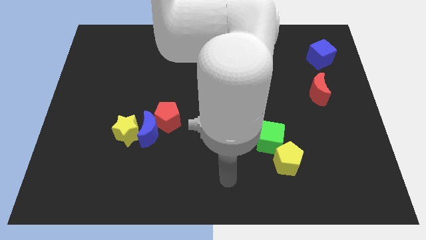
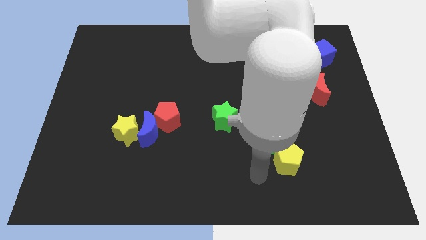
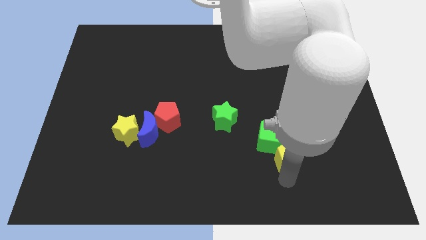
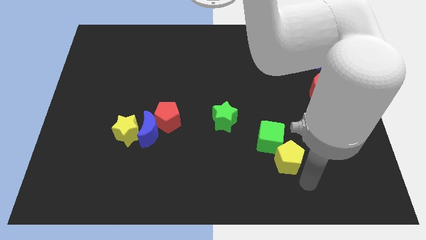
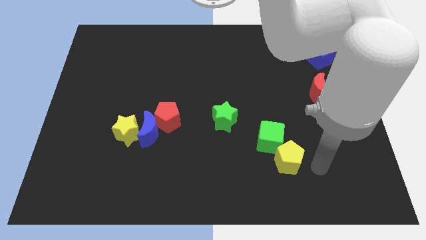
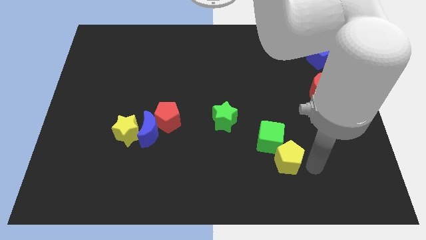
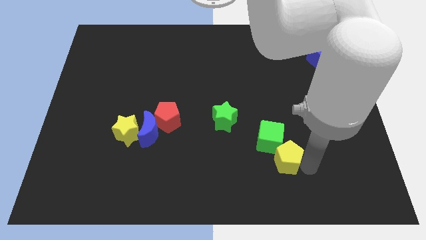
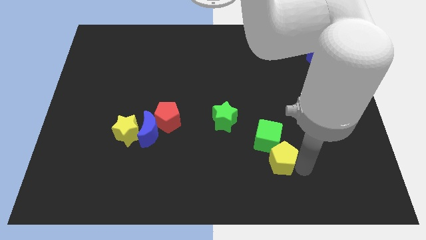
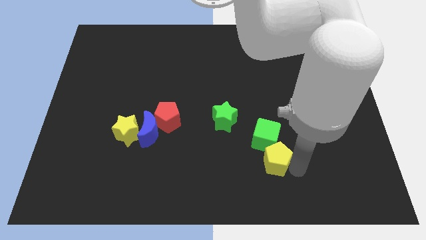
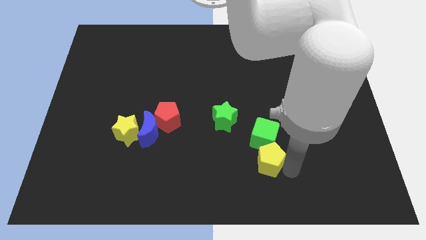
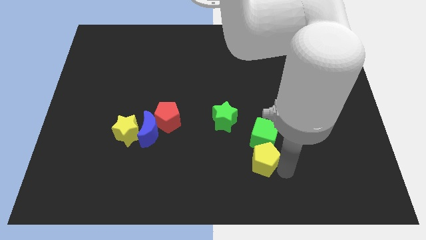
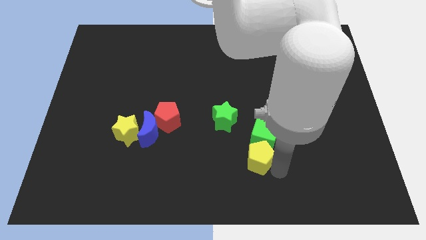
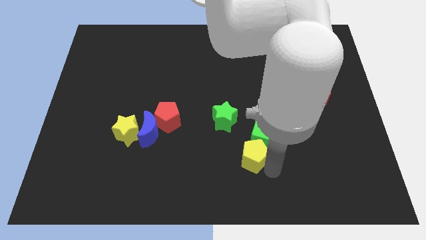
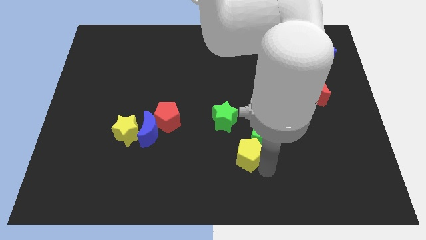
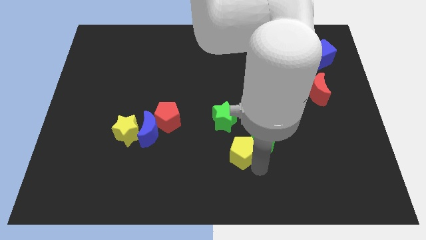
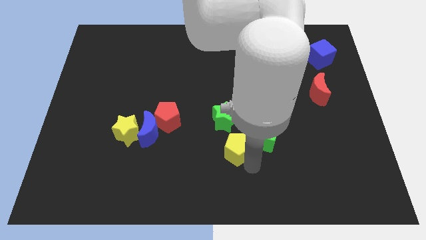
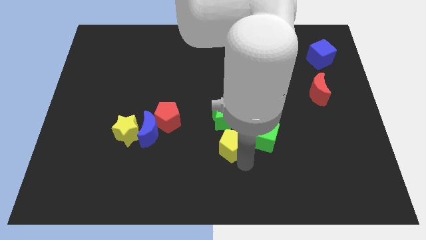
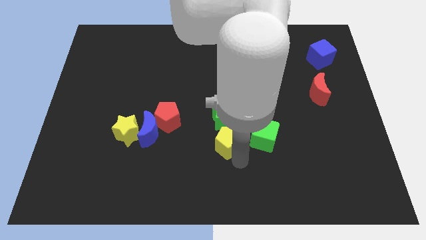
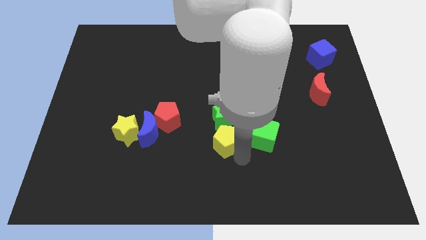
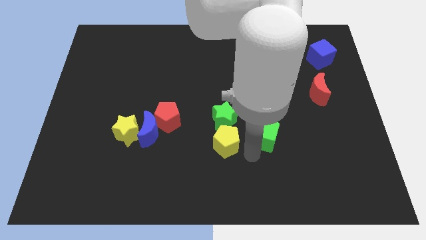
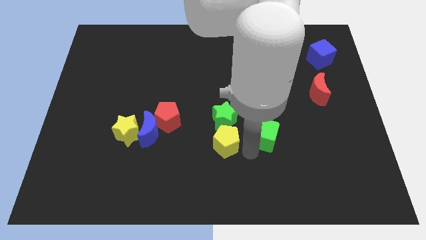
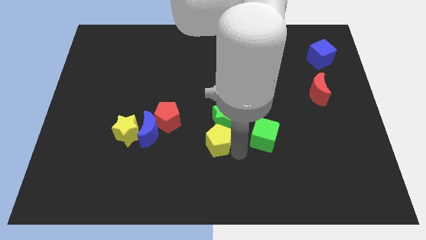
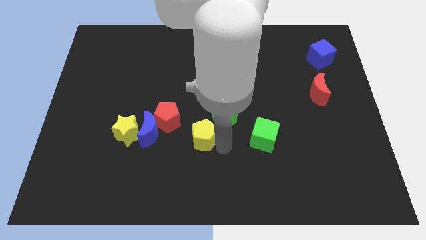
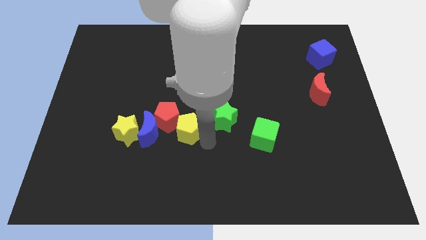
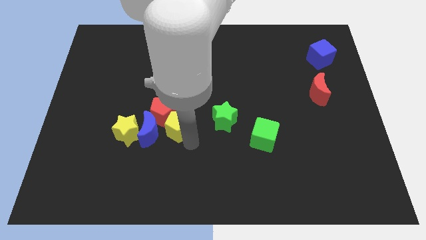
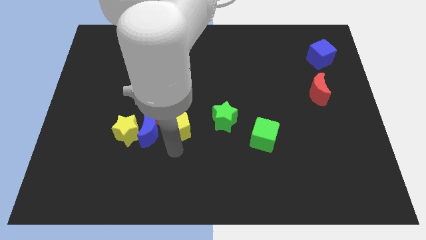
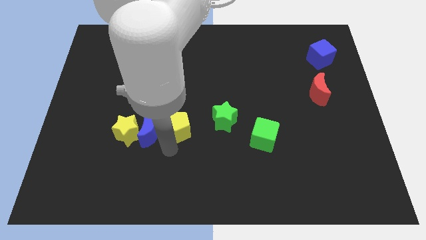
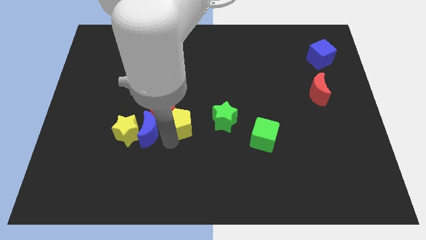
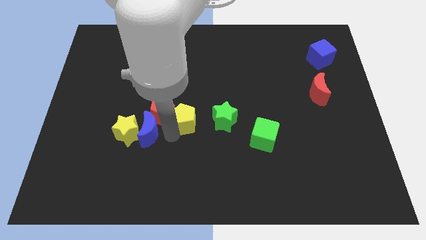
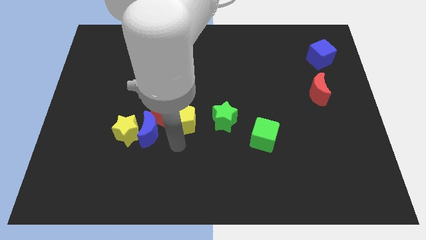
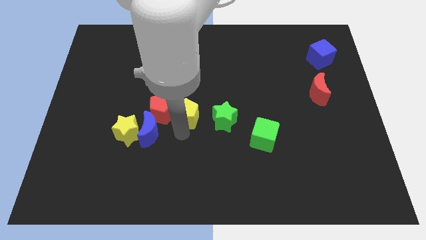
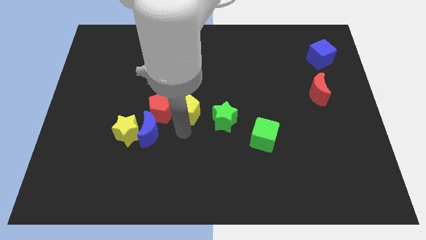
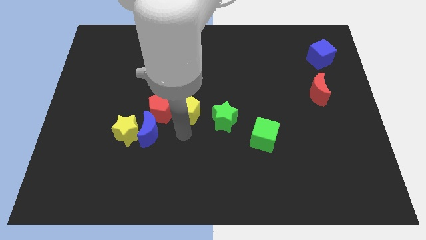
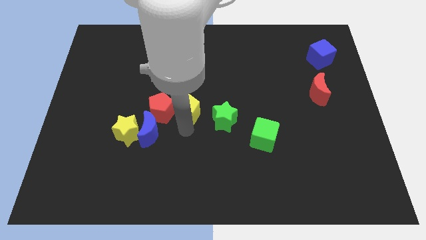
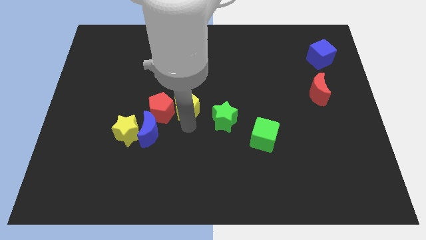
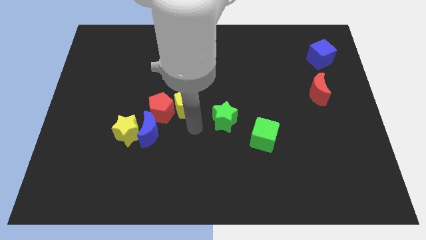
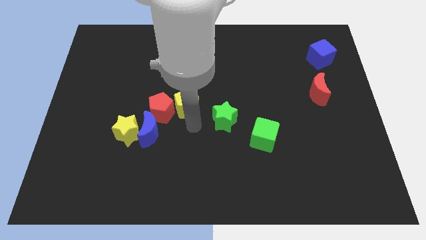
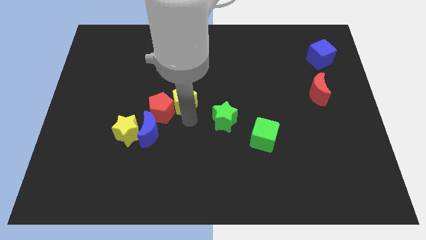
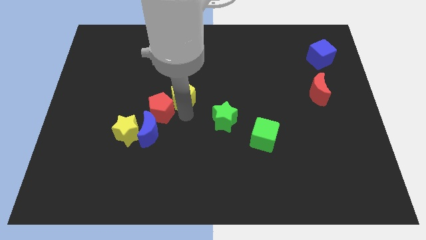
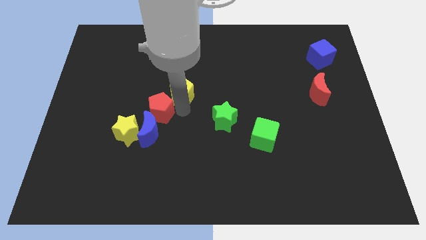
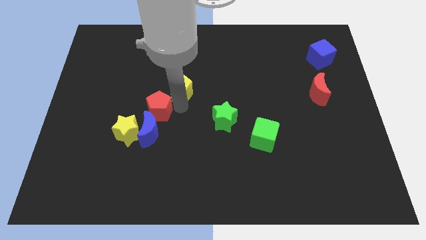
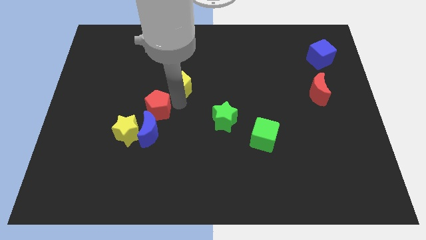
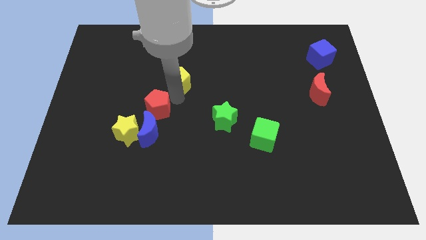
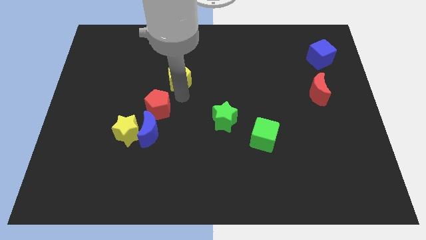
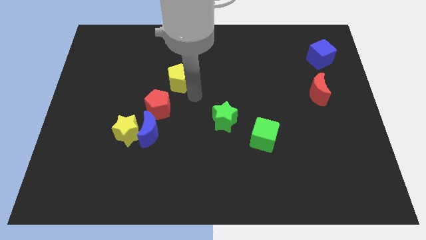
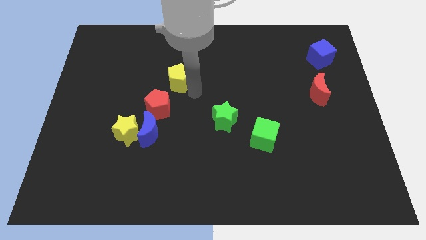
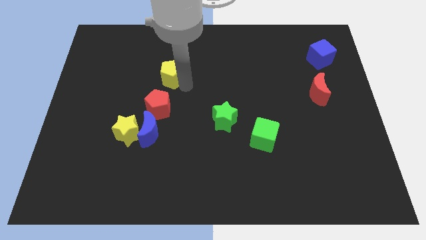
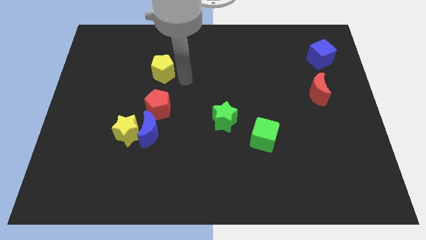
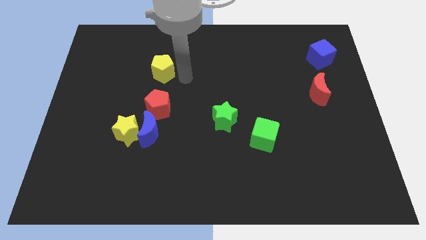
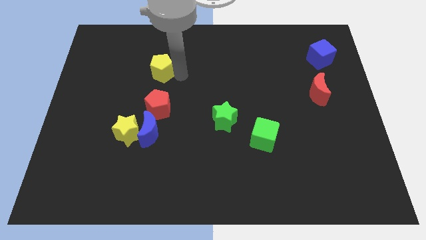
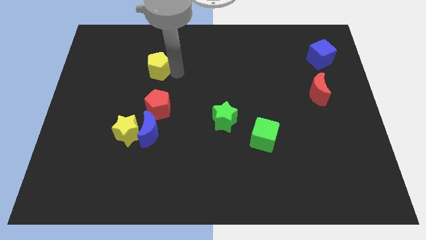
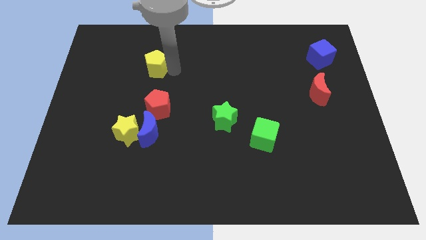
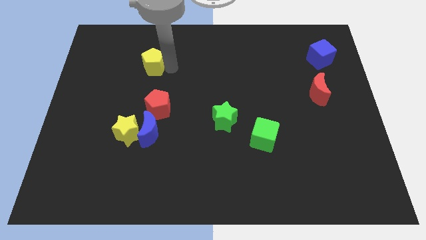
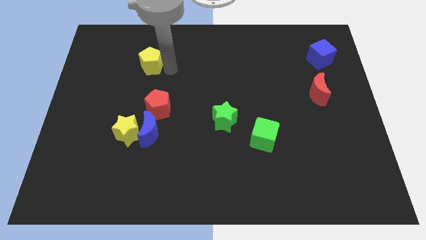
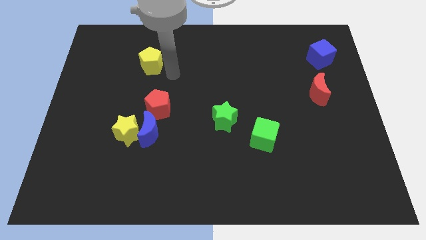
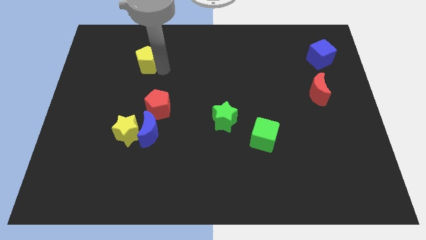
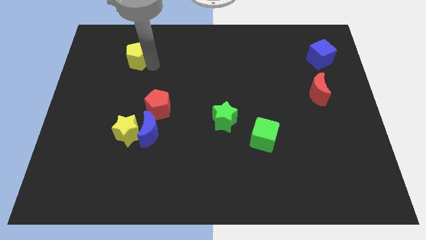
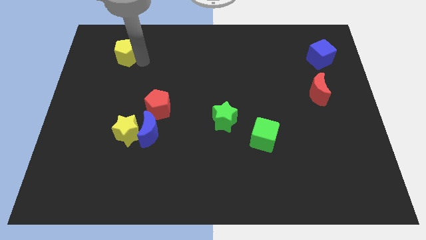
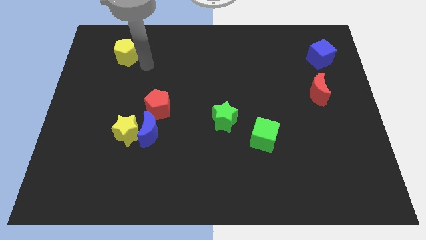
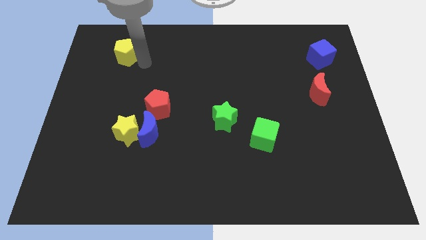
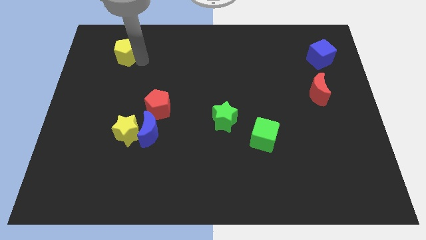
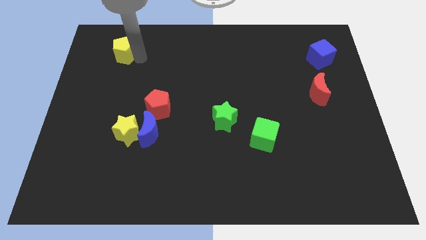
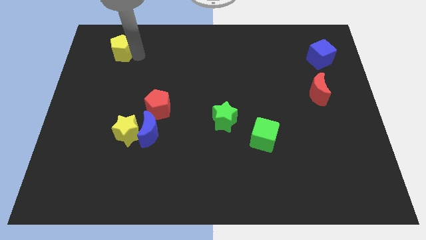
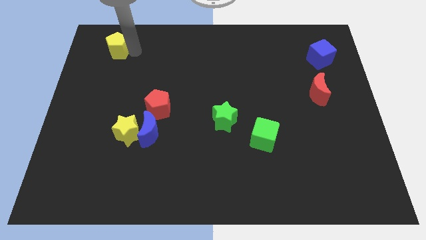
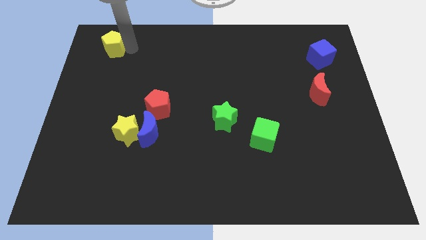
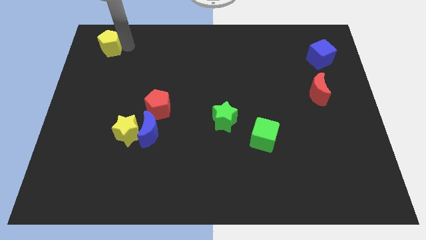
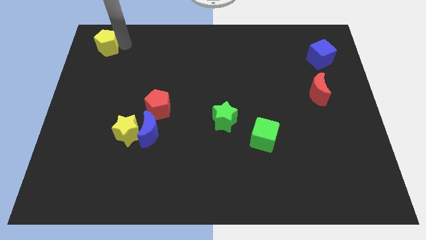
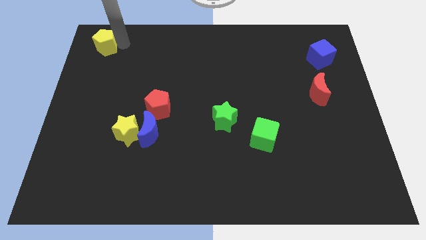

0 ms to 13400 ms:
move the yellow pentagon to the upper left corner
